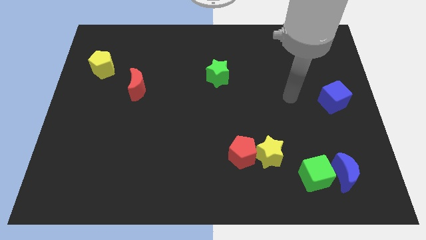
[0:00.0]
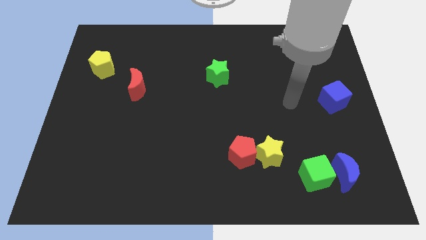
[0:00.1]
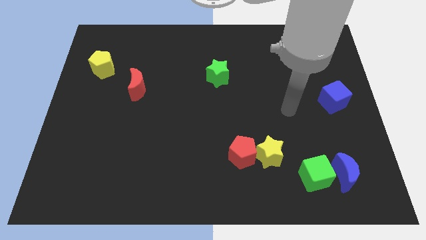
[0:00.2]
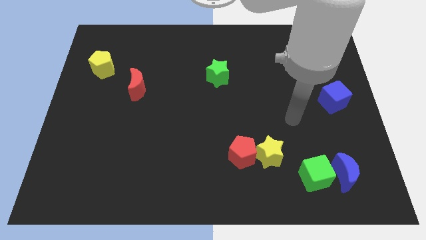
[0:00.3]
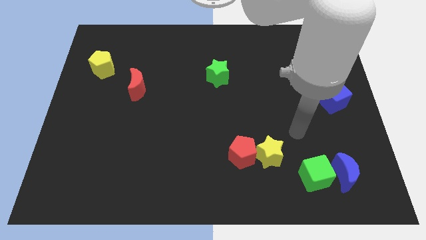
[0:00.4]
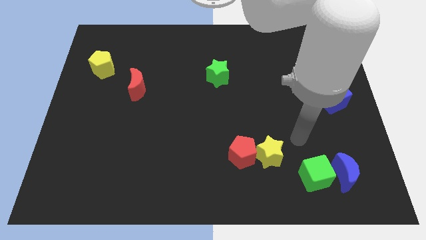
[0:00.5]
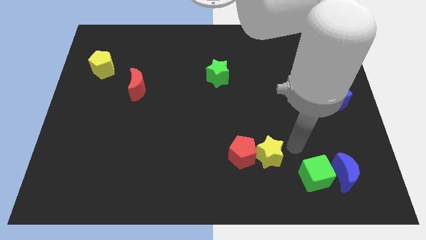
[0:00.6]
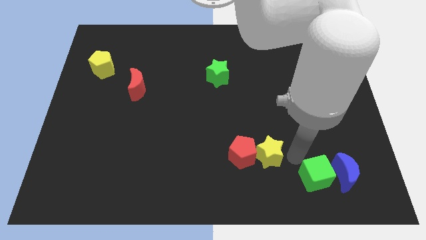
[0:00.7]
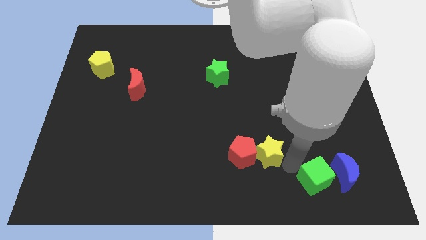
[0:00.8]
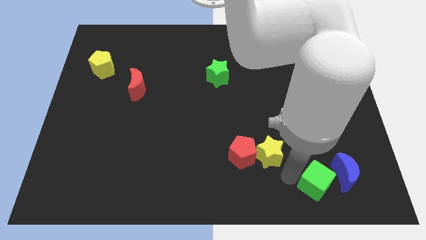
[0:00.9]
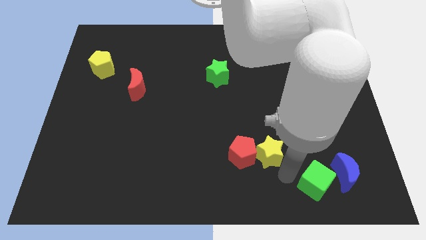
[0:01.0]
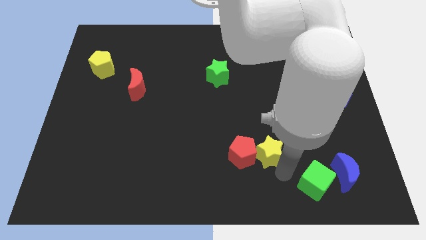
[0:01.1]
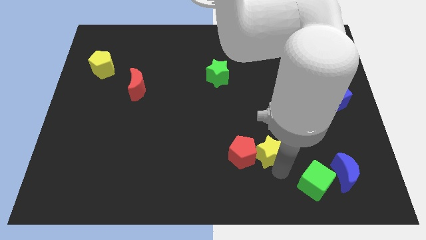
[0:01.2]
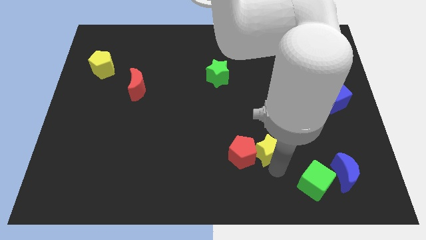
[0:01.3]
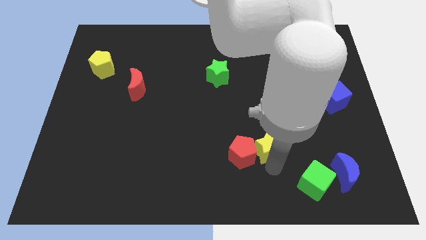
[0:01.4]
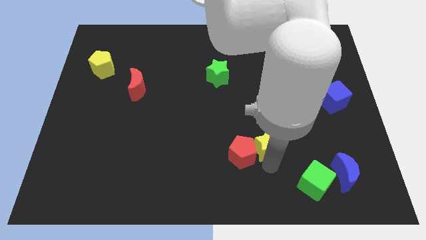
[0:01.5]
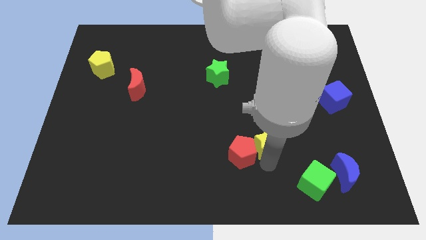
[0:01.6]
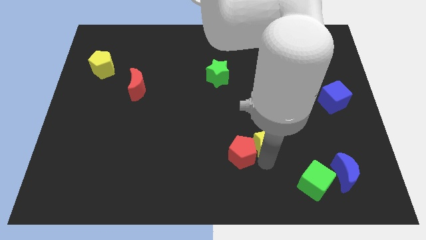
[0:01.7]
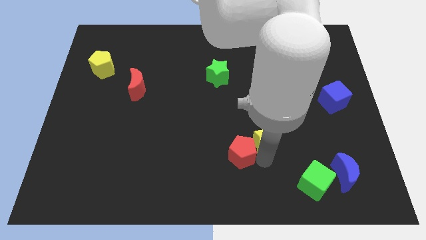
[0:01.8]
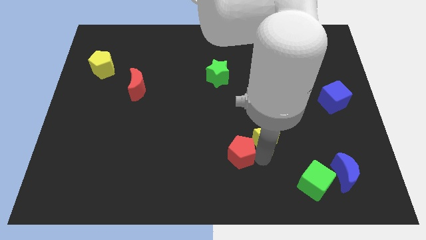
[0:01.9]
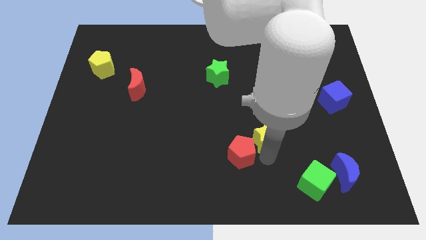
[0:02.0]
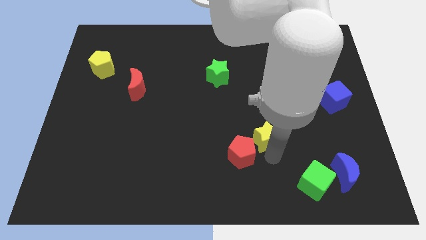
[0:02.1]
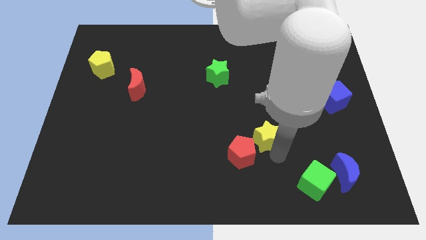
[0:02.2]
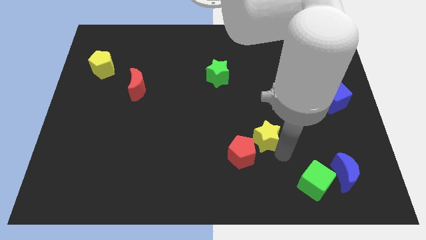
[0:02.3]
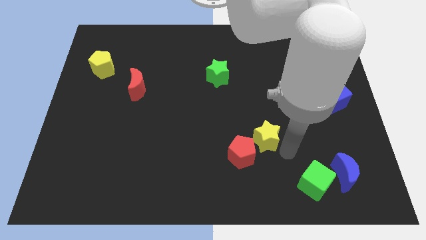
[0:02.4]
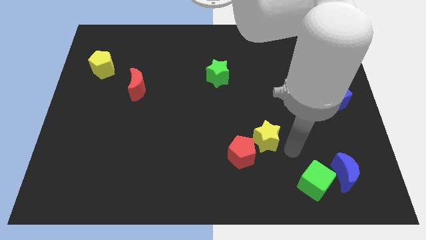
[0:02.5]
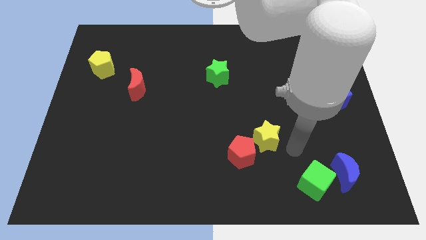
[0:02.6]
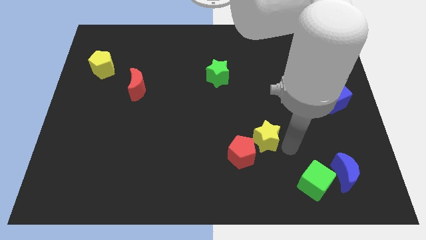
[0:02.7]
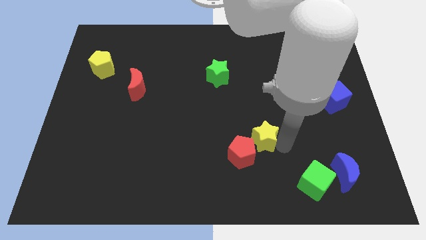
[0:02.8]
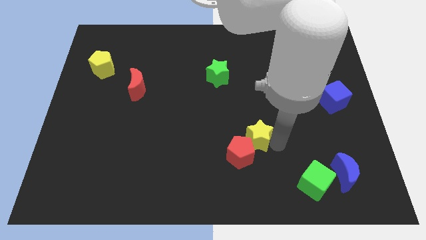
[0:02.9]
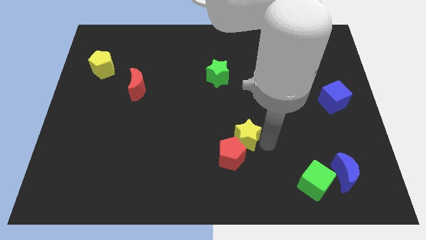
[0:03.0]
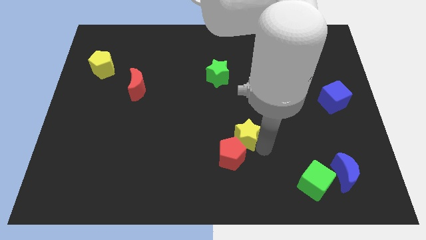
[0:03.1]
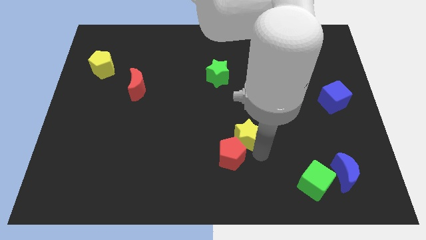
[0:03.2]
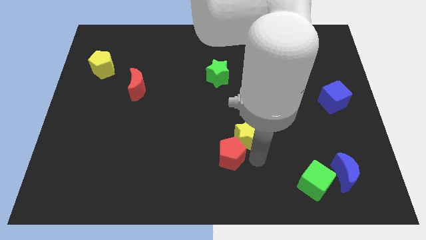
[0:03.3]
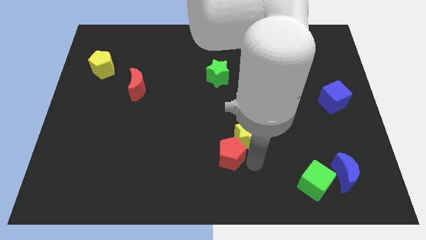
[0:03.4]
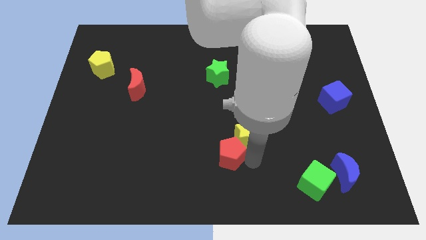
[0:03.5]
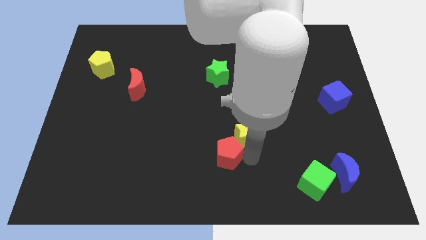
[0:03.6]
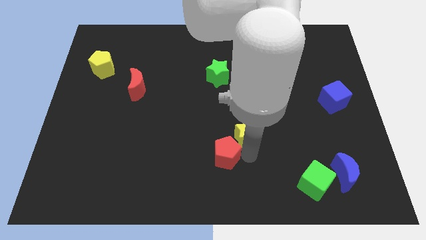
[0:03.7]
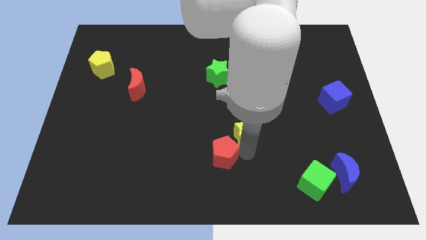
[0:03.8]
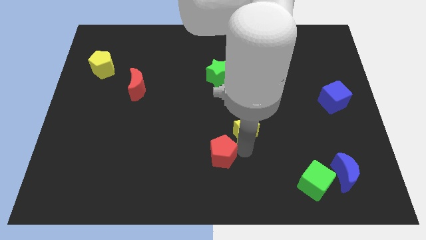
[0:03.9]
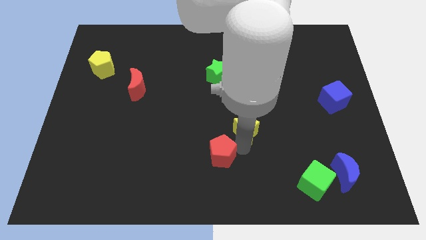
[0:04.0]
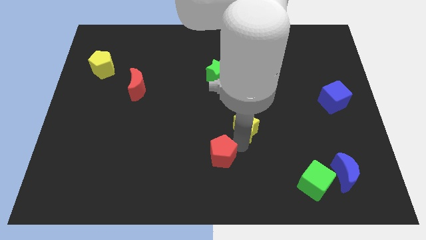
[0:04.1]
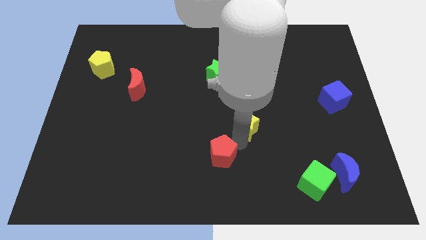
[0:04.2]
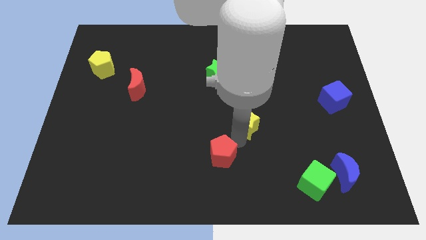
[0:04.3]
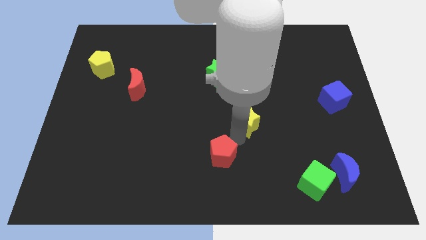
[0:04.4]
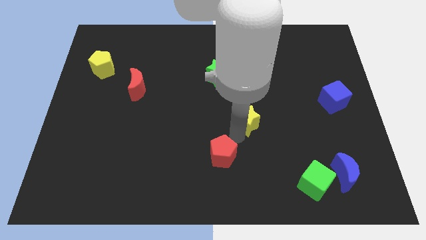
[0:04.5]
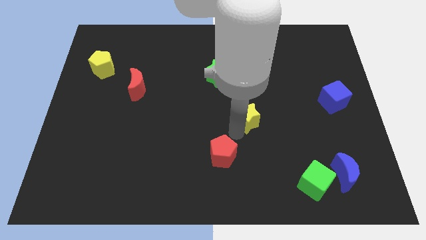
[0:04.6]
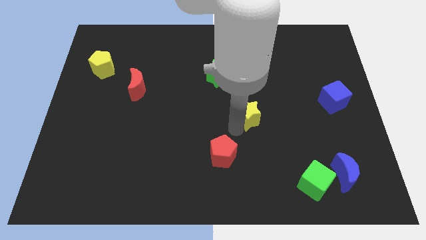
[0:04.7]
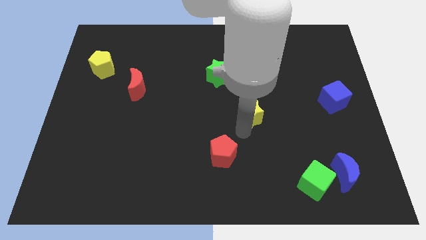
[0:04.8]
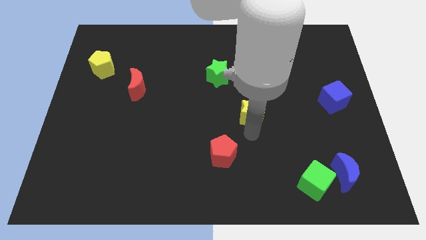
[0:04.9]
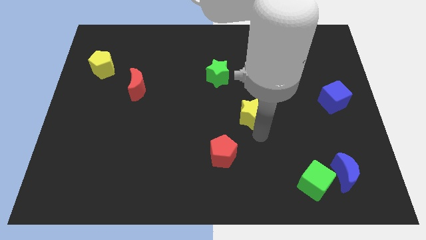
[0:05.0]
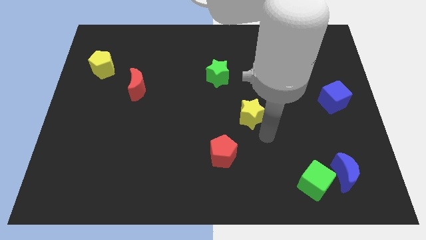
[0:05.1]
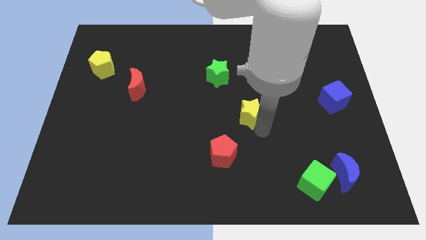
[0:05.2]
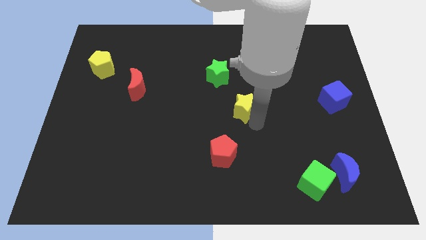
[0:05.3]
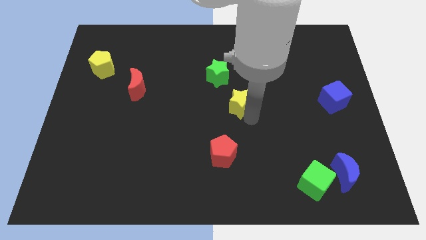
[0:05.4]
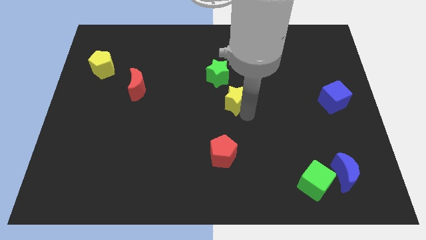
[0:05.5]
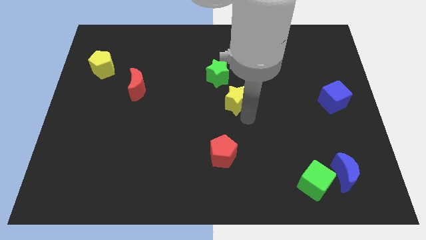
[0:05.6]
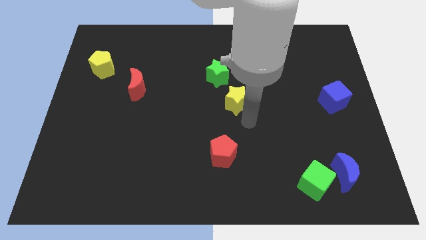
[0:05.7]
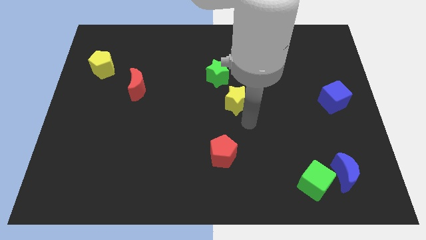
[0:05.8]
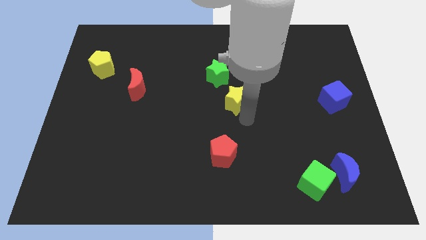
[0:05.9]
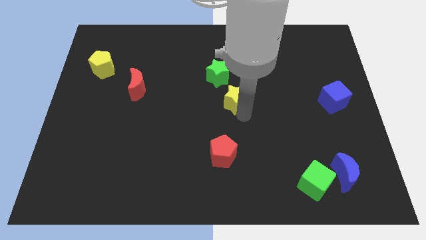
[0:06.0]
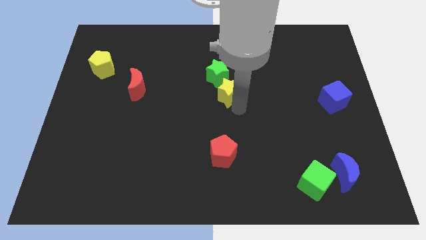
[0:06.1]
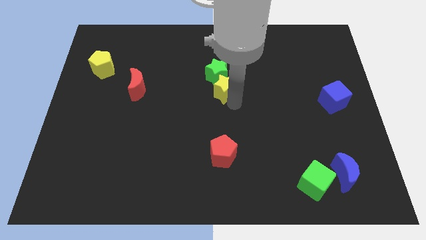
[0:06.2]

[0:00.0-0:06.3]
put the yellow star towards the green star

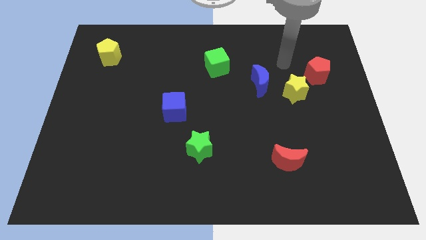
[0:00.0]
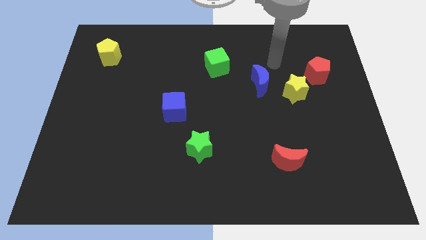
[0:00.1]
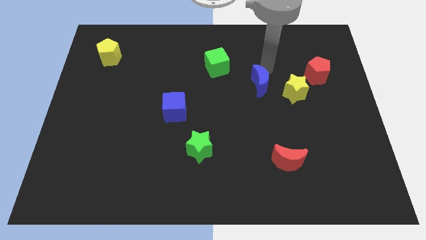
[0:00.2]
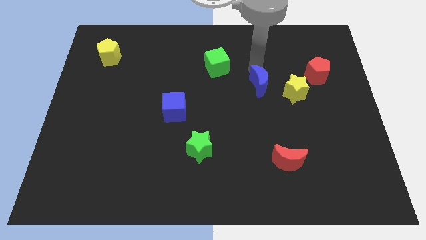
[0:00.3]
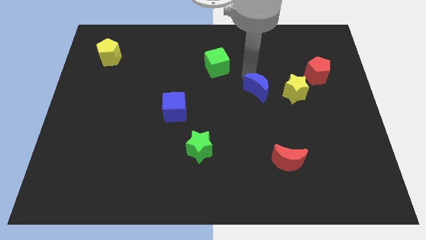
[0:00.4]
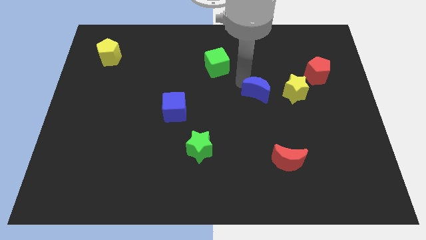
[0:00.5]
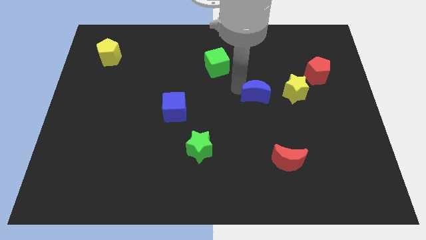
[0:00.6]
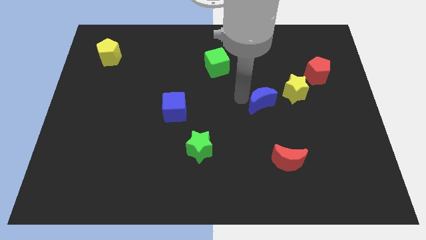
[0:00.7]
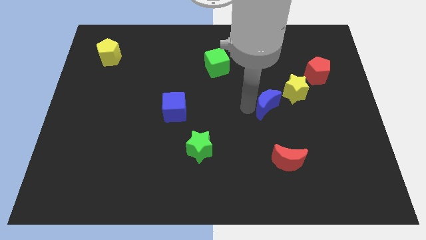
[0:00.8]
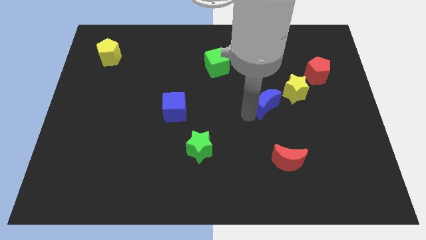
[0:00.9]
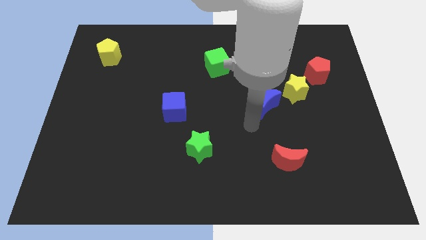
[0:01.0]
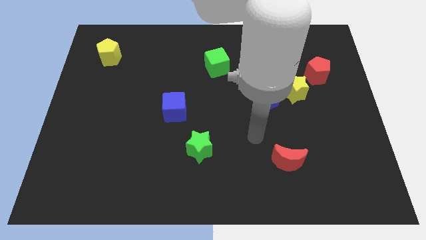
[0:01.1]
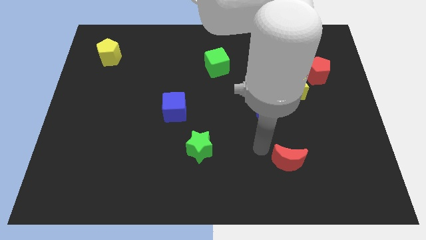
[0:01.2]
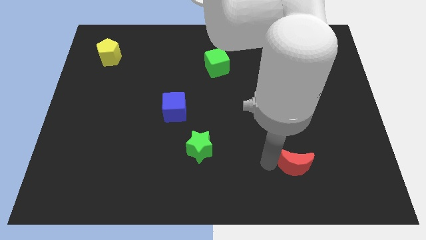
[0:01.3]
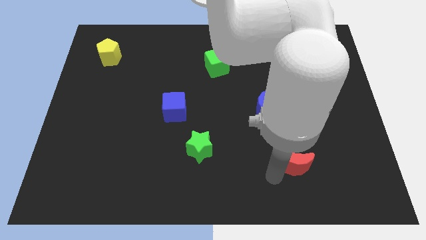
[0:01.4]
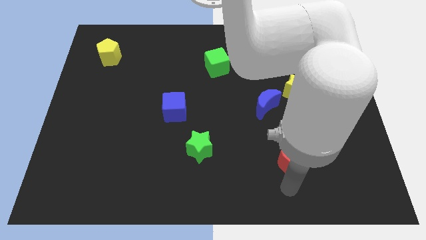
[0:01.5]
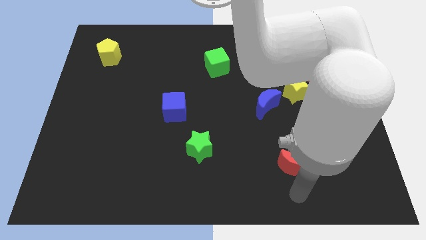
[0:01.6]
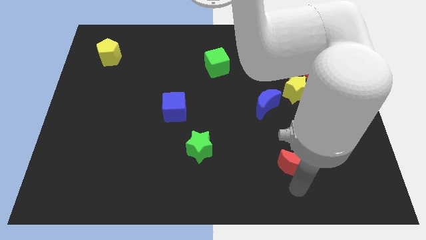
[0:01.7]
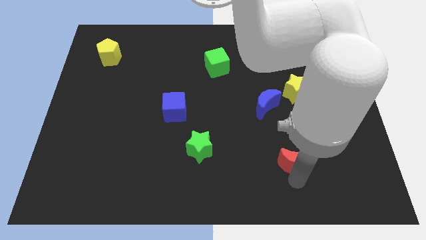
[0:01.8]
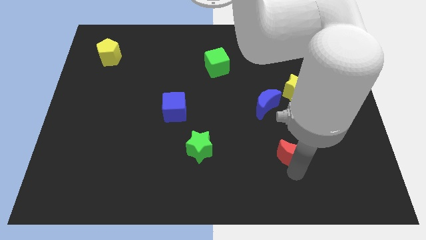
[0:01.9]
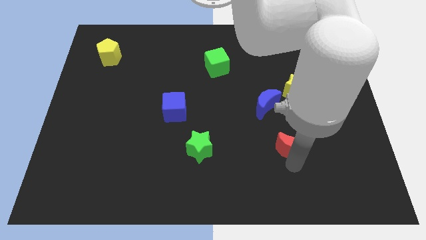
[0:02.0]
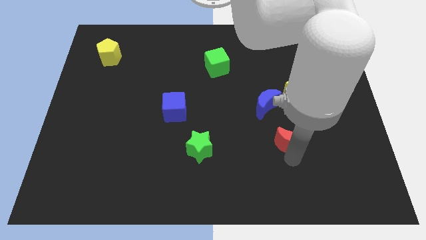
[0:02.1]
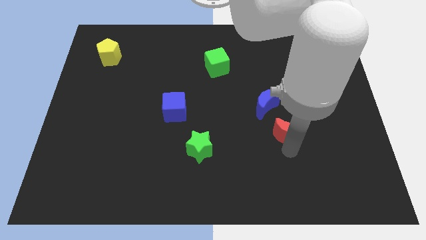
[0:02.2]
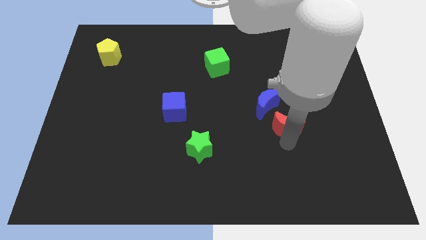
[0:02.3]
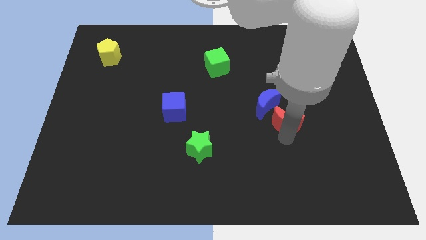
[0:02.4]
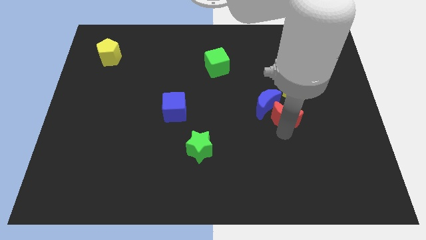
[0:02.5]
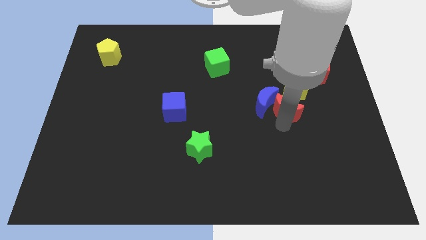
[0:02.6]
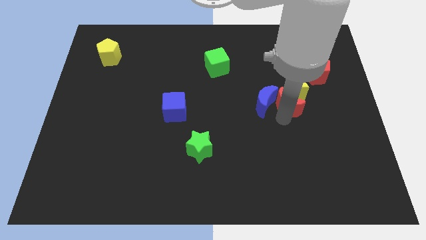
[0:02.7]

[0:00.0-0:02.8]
slide the red moon to the yellow star
